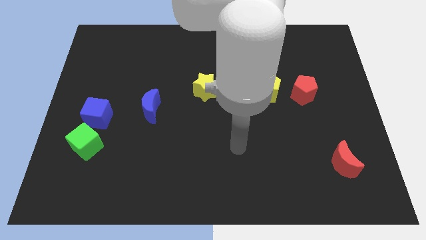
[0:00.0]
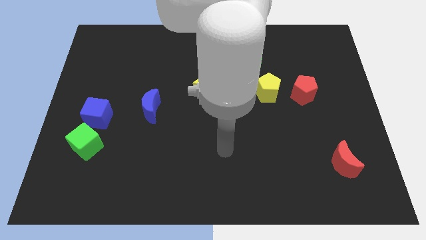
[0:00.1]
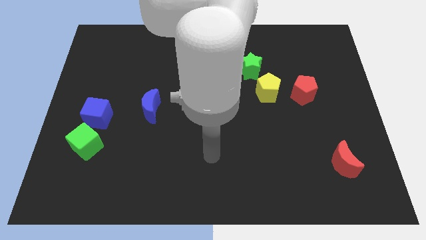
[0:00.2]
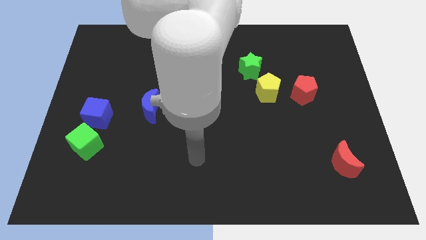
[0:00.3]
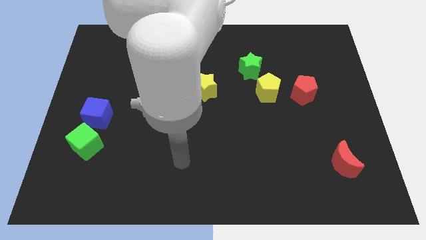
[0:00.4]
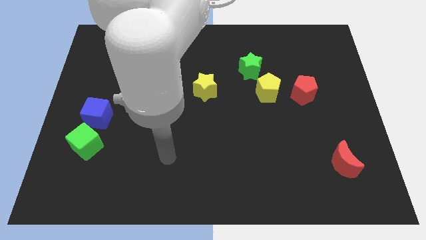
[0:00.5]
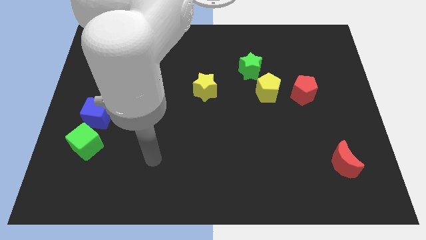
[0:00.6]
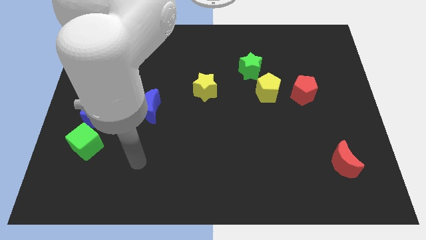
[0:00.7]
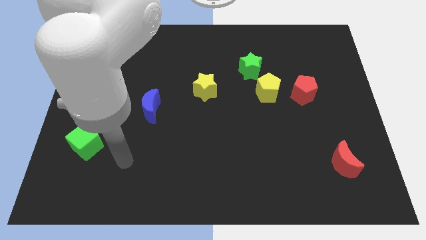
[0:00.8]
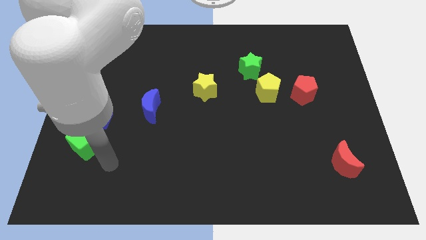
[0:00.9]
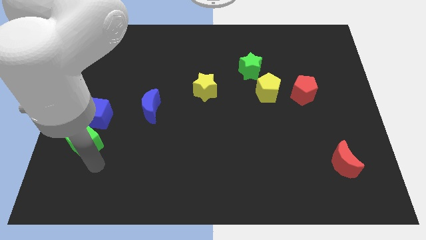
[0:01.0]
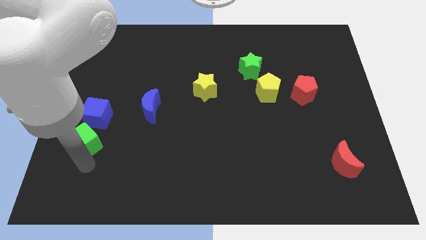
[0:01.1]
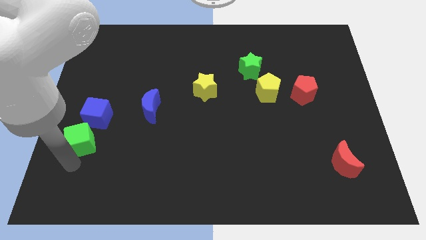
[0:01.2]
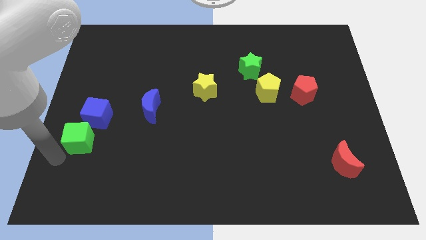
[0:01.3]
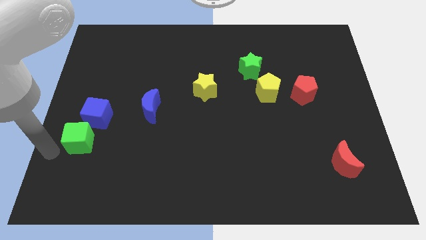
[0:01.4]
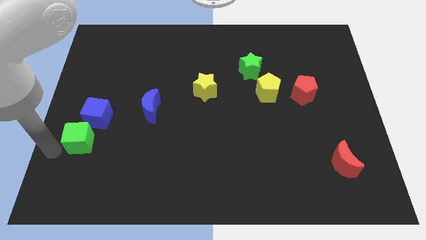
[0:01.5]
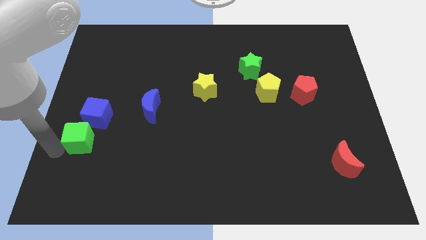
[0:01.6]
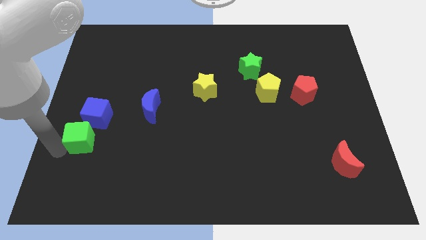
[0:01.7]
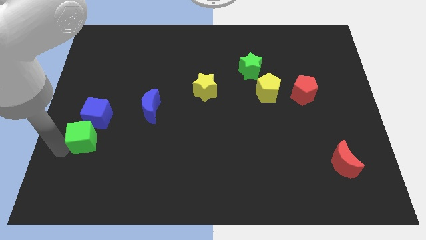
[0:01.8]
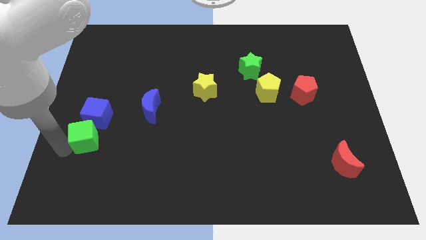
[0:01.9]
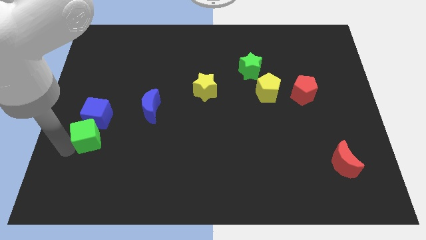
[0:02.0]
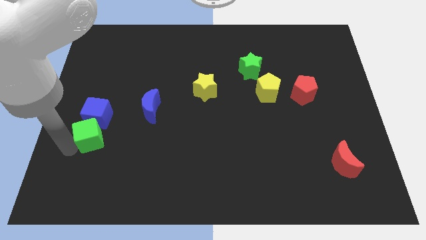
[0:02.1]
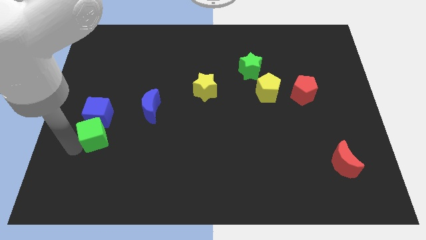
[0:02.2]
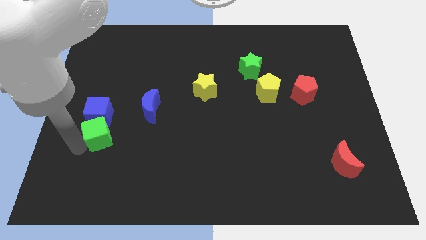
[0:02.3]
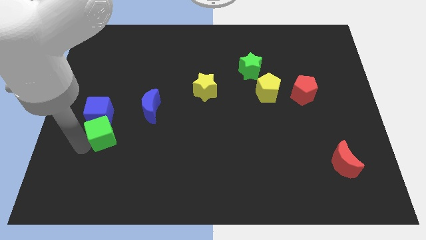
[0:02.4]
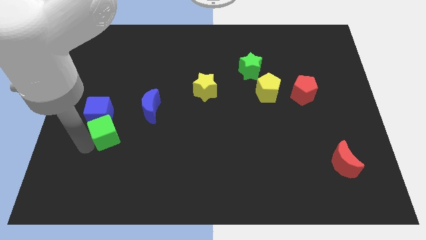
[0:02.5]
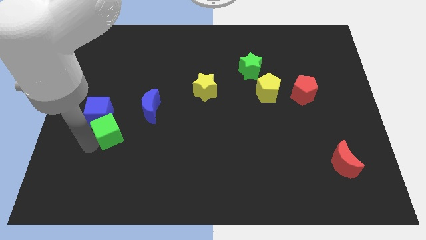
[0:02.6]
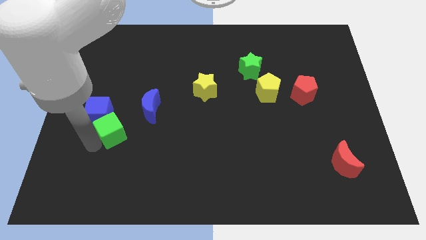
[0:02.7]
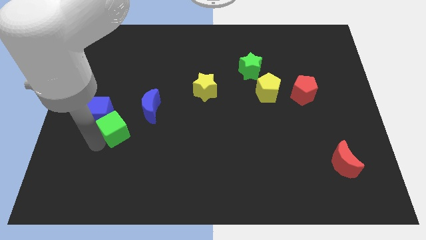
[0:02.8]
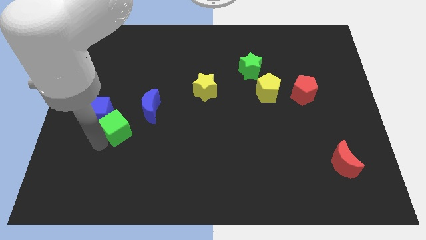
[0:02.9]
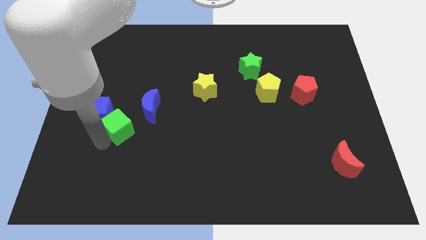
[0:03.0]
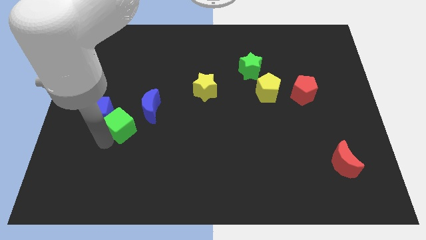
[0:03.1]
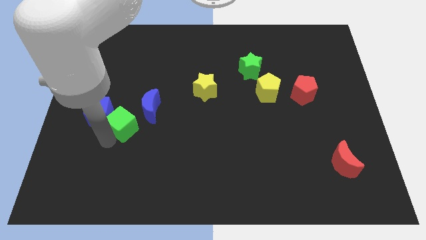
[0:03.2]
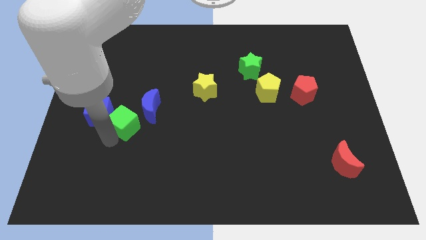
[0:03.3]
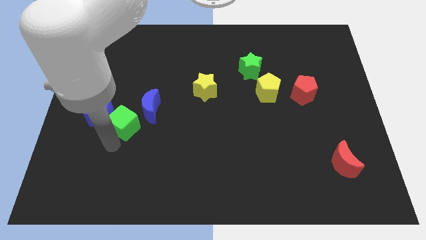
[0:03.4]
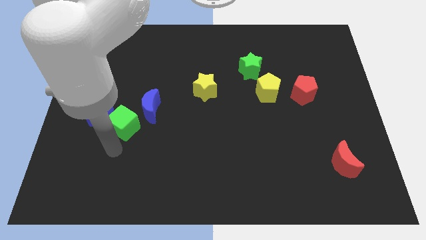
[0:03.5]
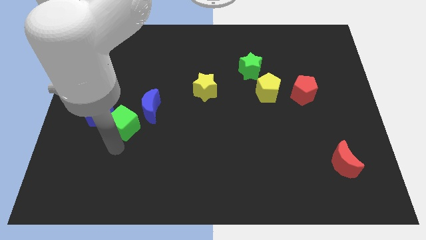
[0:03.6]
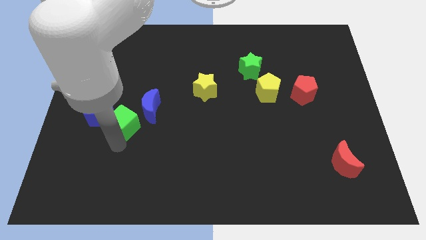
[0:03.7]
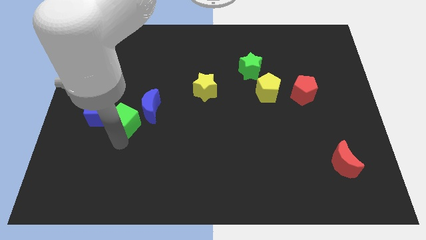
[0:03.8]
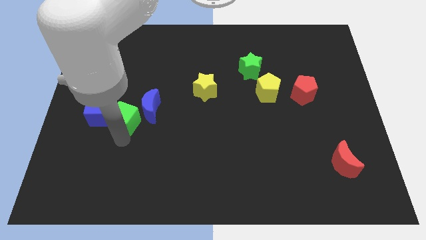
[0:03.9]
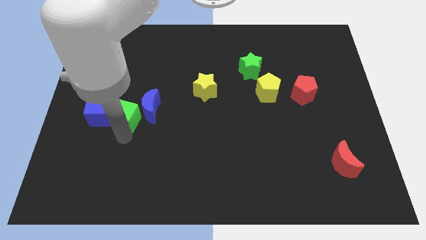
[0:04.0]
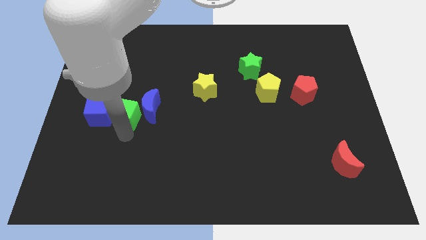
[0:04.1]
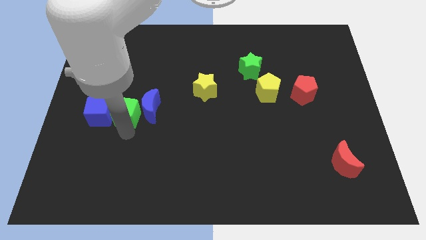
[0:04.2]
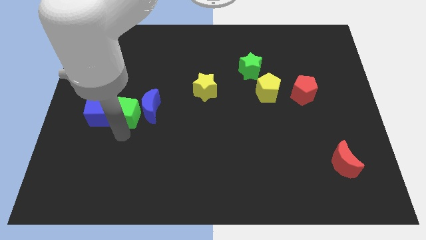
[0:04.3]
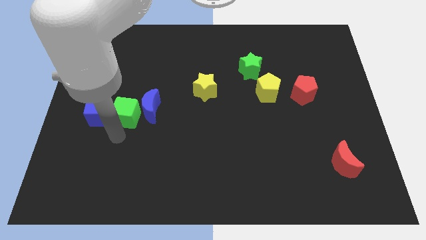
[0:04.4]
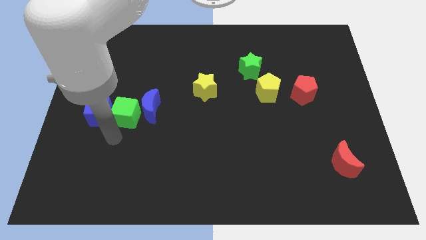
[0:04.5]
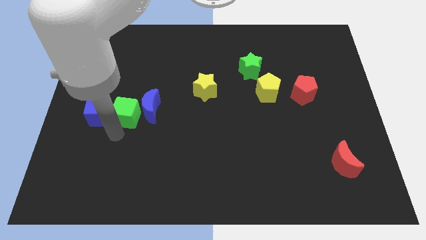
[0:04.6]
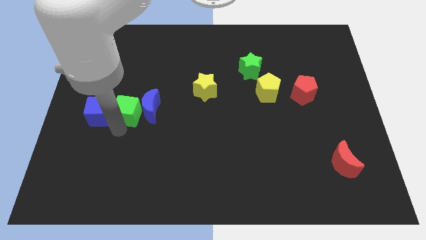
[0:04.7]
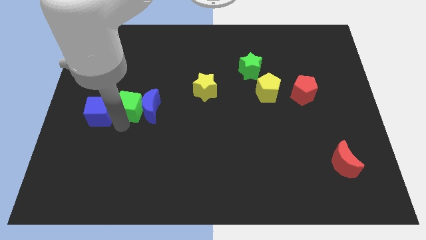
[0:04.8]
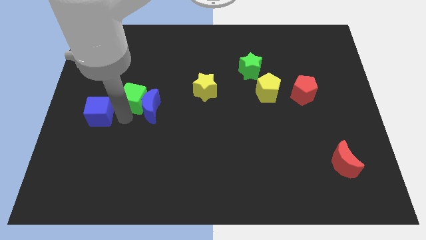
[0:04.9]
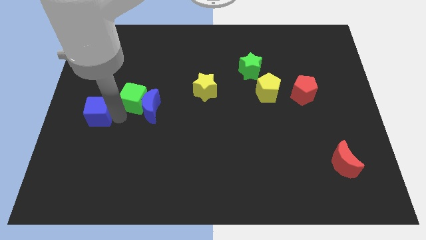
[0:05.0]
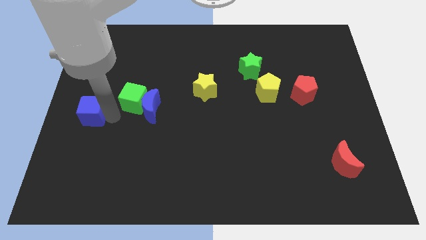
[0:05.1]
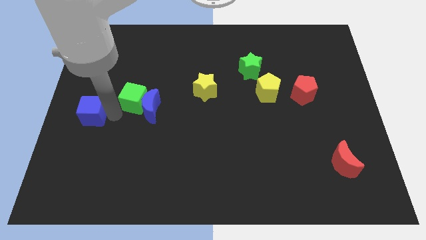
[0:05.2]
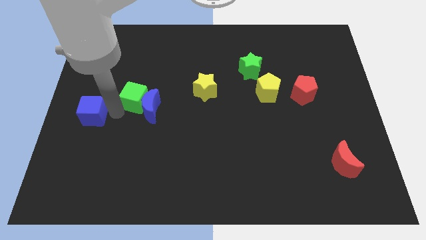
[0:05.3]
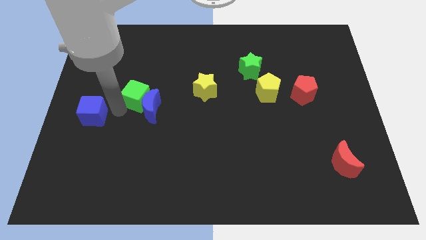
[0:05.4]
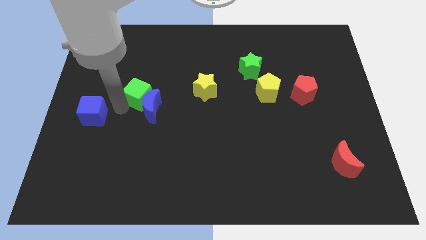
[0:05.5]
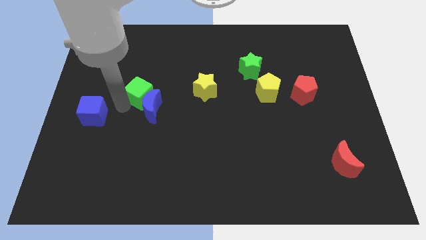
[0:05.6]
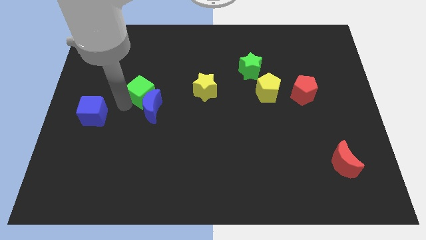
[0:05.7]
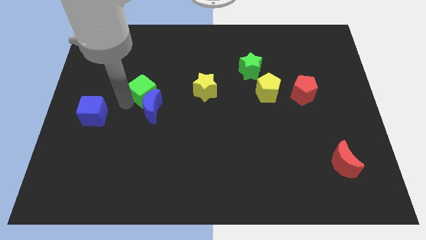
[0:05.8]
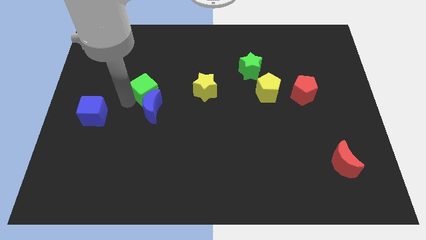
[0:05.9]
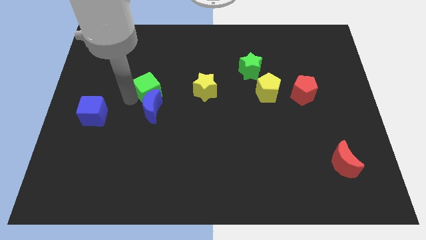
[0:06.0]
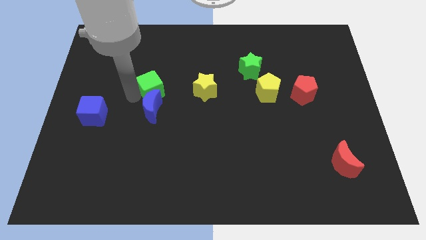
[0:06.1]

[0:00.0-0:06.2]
move the green cube up and to the right

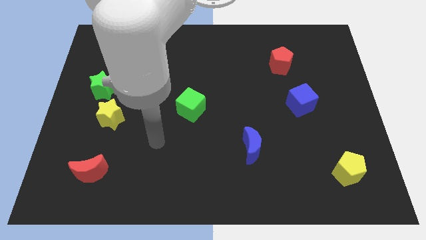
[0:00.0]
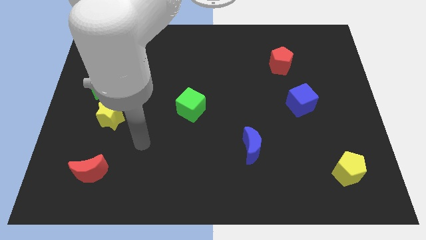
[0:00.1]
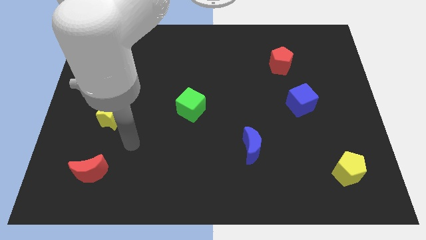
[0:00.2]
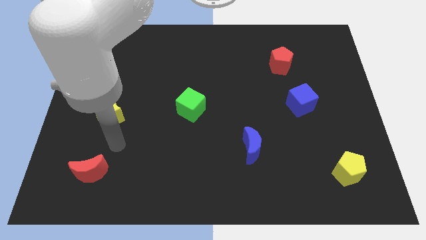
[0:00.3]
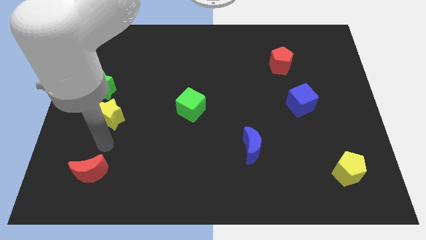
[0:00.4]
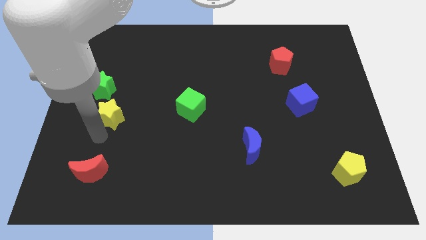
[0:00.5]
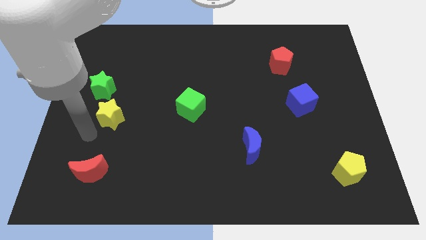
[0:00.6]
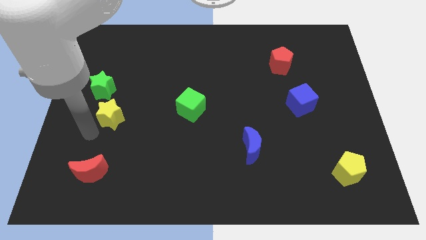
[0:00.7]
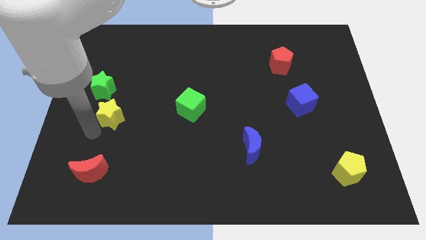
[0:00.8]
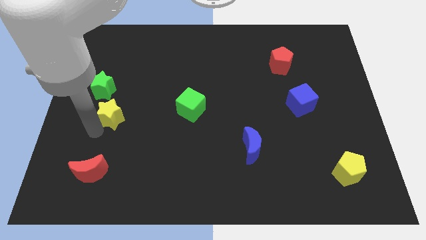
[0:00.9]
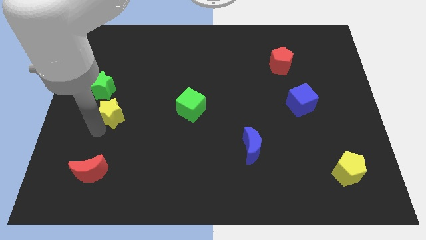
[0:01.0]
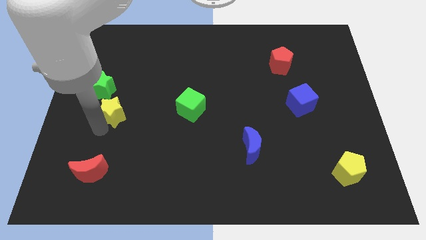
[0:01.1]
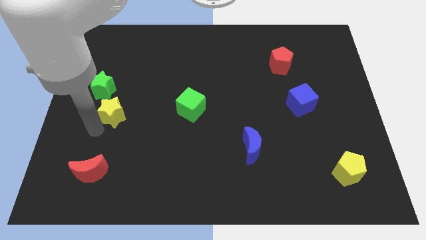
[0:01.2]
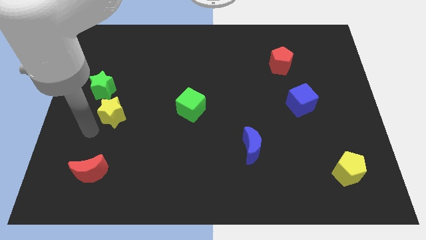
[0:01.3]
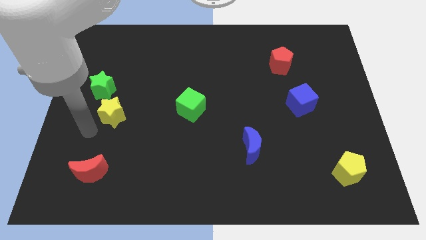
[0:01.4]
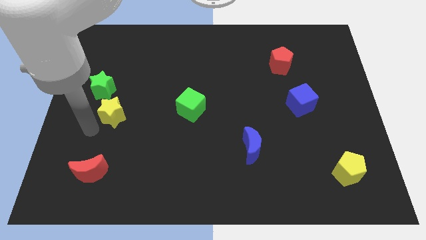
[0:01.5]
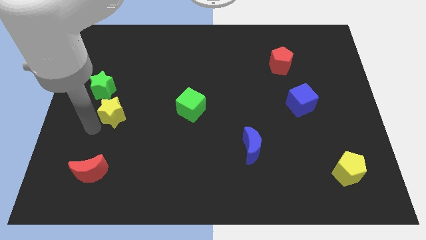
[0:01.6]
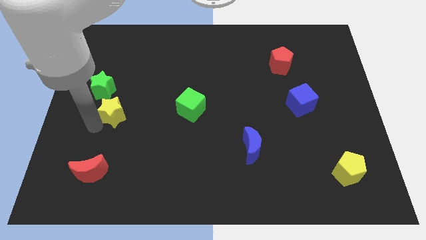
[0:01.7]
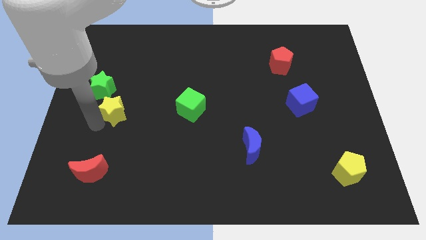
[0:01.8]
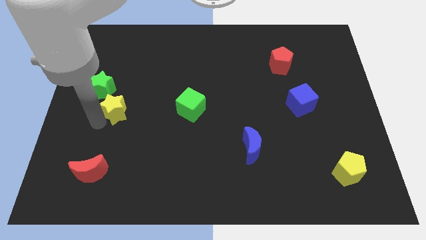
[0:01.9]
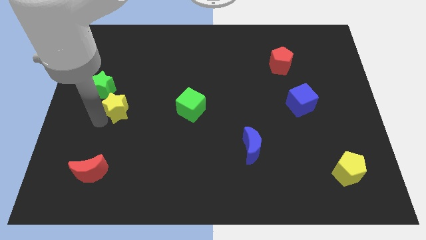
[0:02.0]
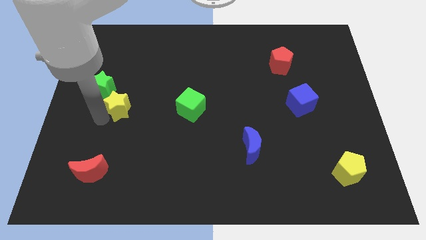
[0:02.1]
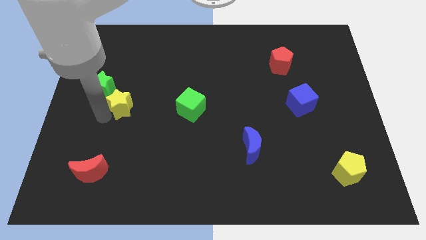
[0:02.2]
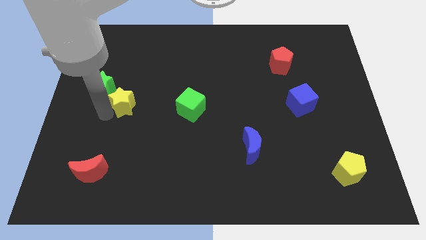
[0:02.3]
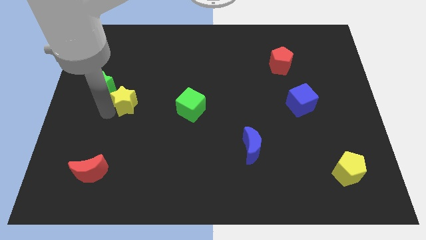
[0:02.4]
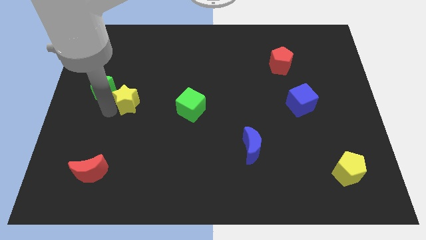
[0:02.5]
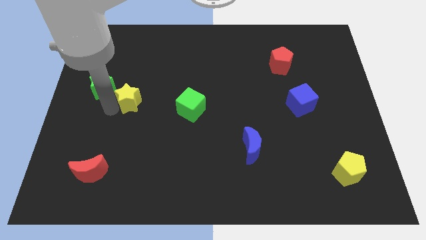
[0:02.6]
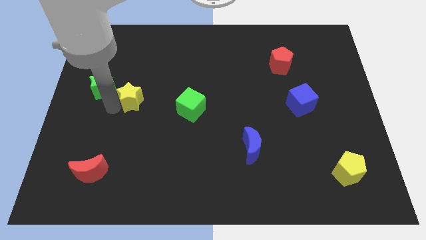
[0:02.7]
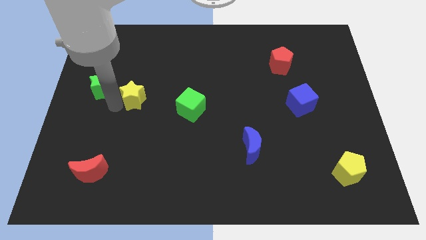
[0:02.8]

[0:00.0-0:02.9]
move the yellow star upwards and right diagonally slightly
